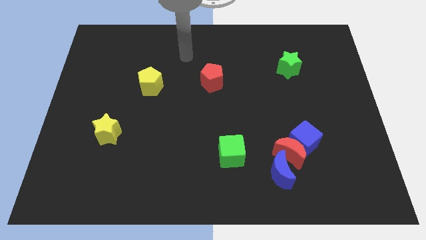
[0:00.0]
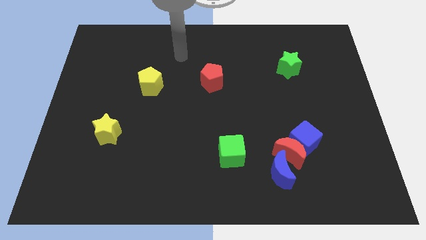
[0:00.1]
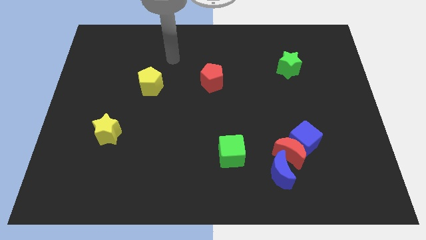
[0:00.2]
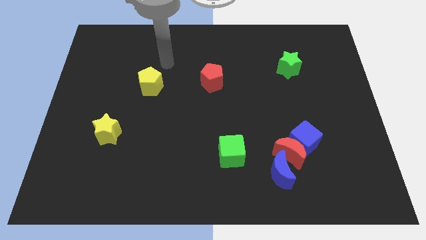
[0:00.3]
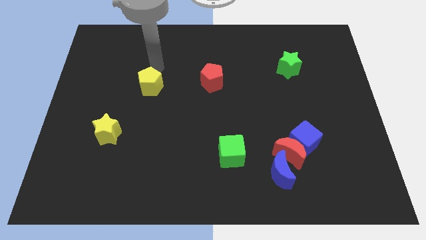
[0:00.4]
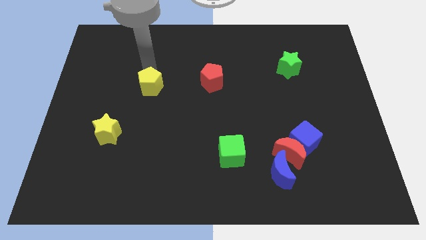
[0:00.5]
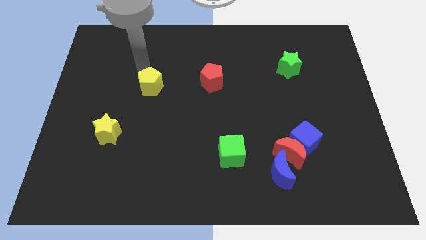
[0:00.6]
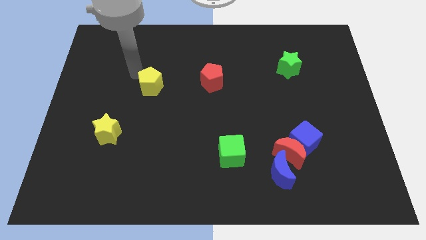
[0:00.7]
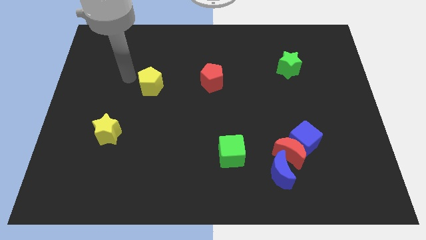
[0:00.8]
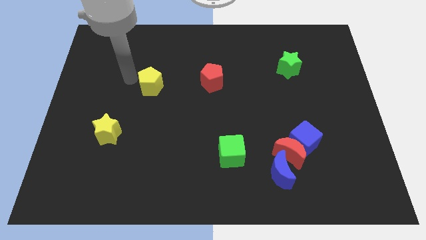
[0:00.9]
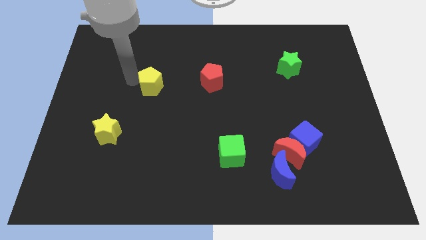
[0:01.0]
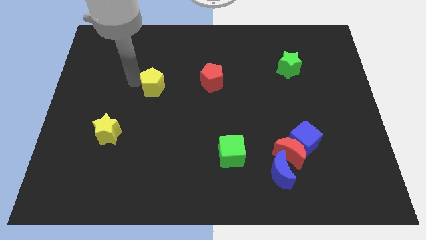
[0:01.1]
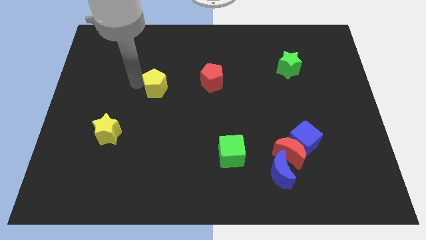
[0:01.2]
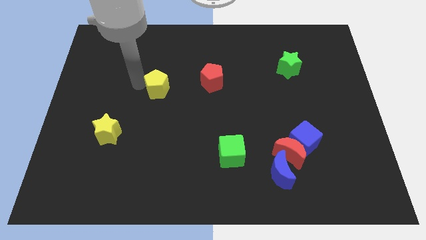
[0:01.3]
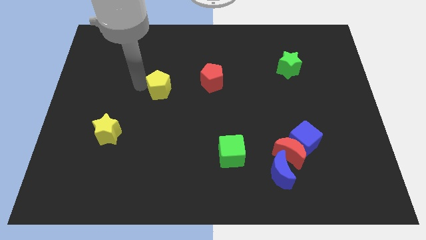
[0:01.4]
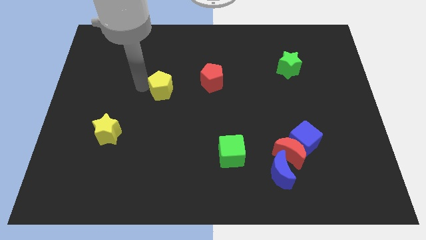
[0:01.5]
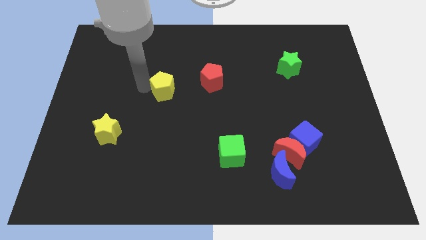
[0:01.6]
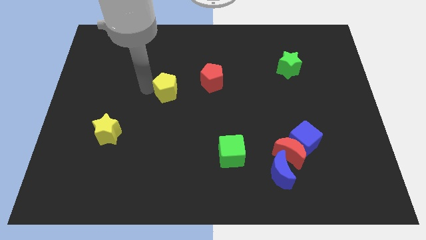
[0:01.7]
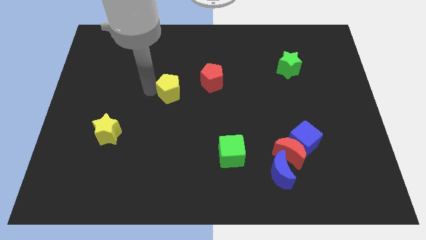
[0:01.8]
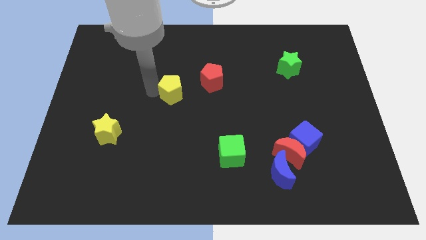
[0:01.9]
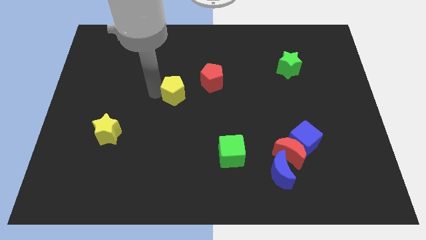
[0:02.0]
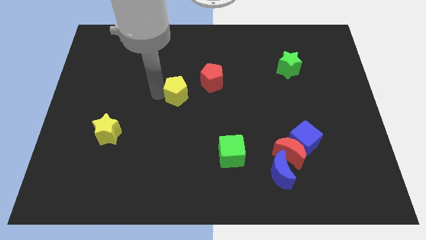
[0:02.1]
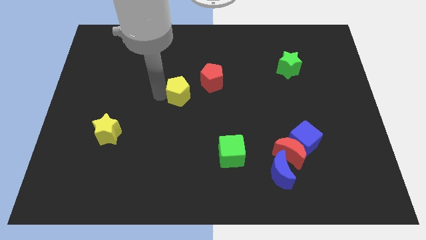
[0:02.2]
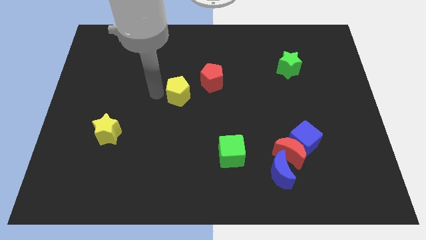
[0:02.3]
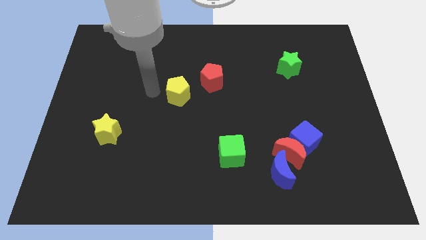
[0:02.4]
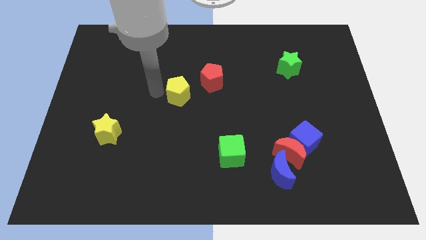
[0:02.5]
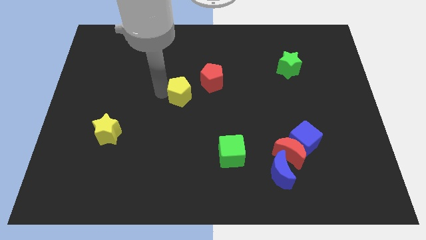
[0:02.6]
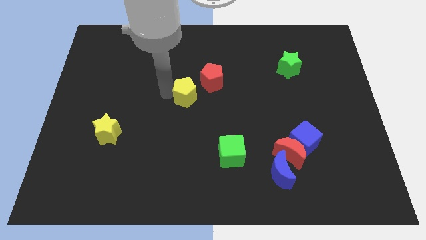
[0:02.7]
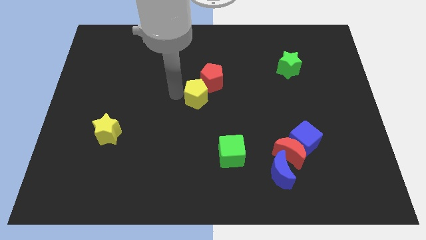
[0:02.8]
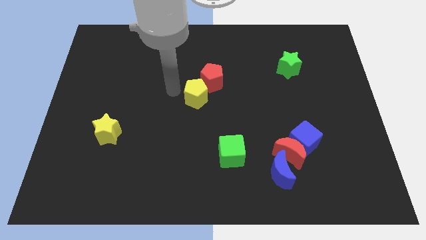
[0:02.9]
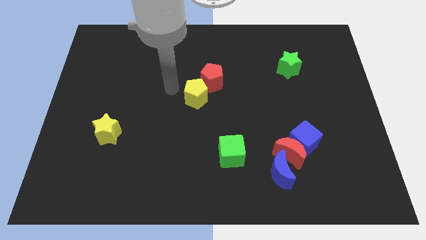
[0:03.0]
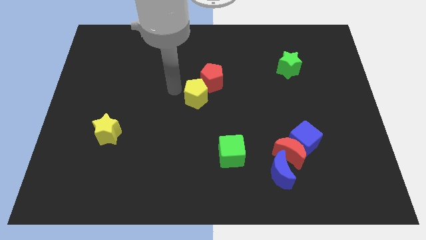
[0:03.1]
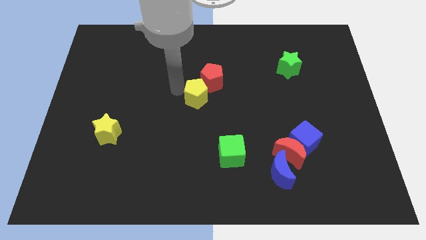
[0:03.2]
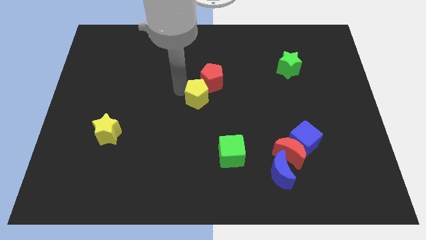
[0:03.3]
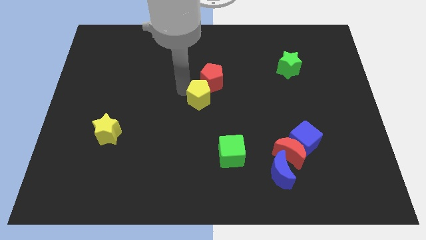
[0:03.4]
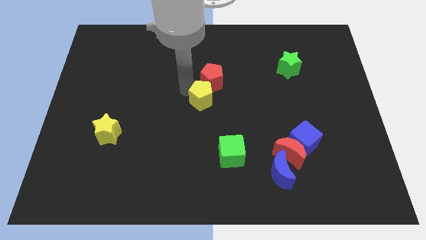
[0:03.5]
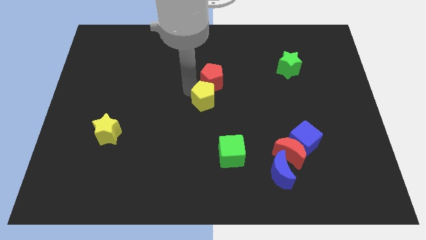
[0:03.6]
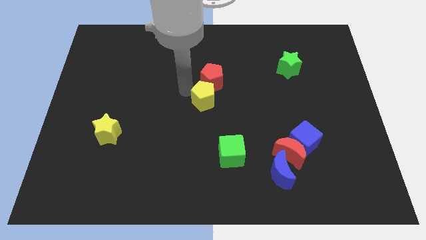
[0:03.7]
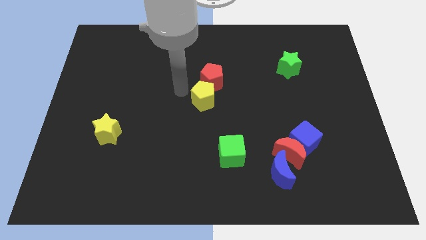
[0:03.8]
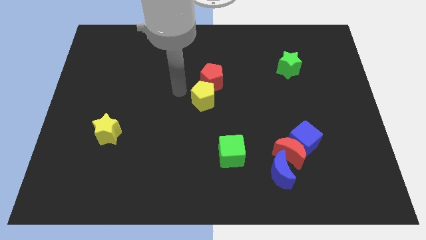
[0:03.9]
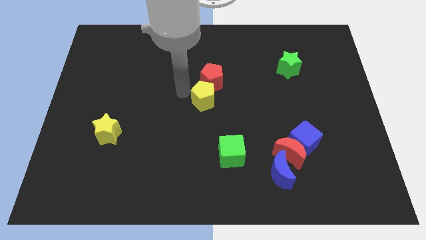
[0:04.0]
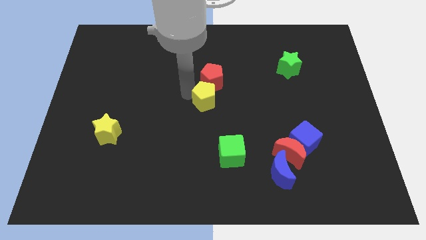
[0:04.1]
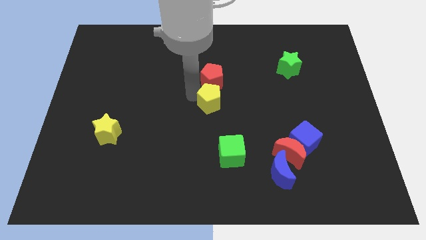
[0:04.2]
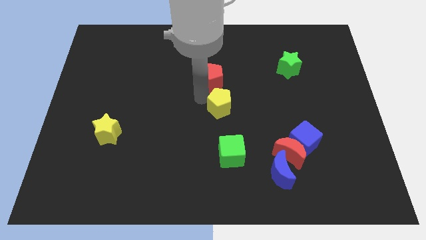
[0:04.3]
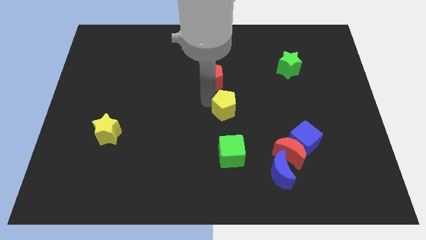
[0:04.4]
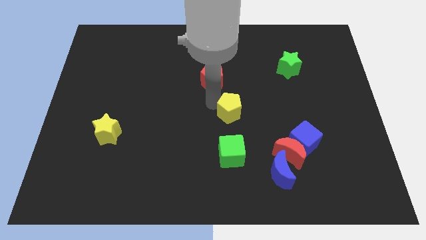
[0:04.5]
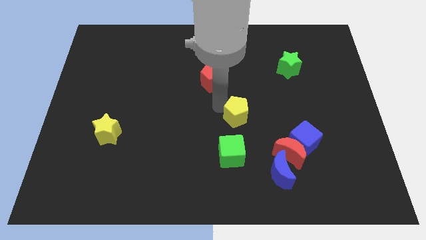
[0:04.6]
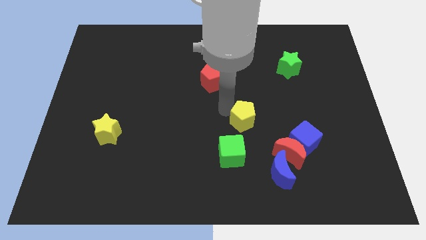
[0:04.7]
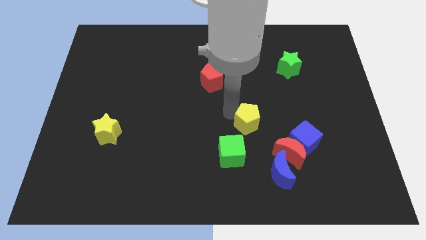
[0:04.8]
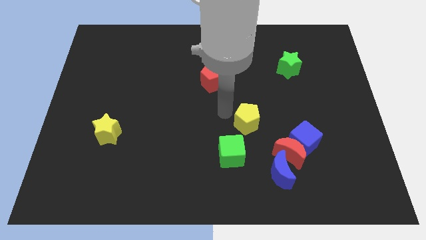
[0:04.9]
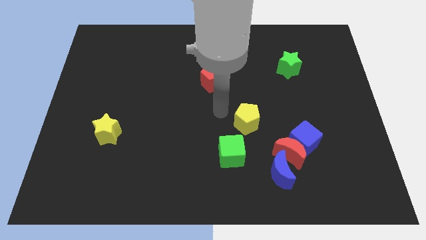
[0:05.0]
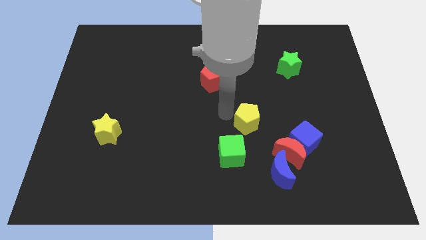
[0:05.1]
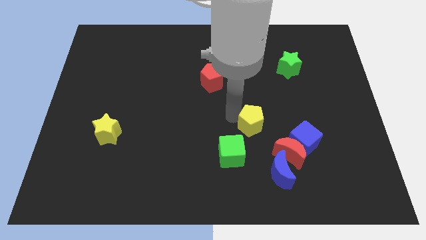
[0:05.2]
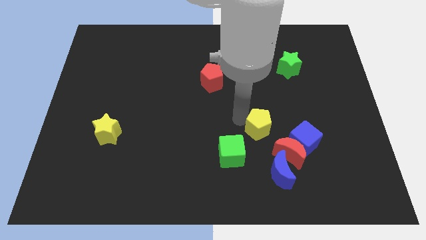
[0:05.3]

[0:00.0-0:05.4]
put the yellow pentagon above the blue moon

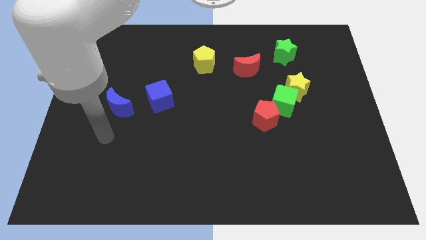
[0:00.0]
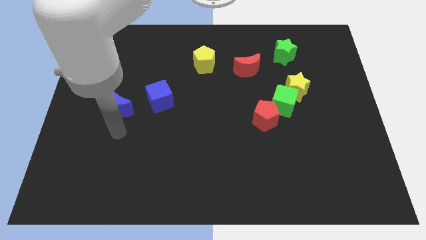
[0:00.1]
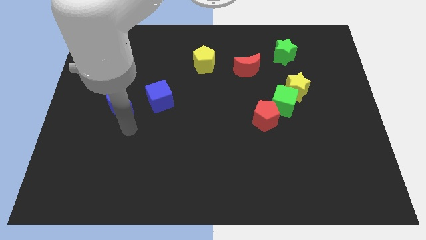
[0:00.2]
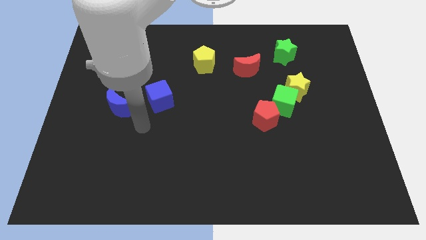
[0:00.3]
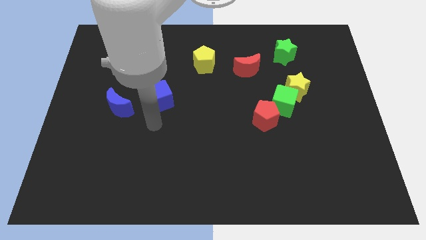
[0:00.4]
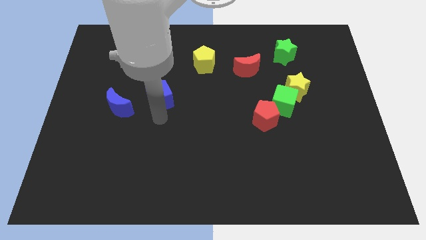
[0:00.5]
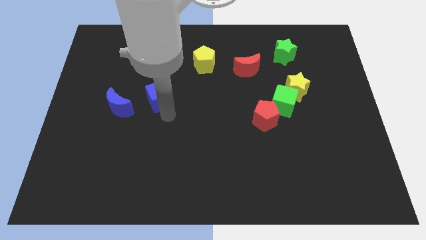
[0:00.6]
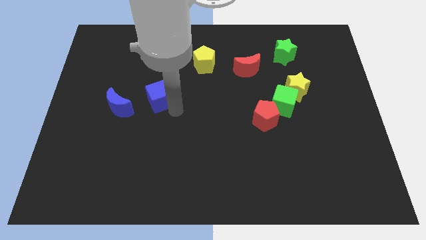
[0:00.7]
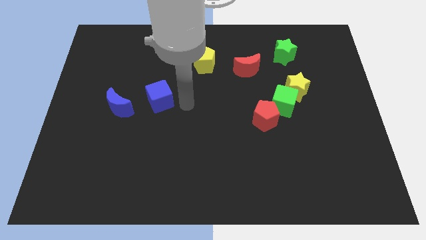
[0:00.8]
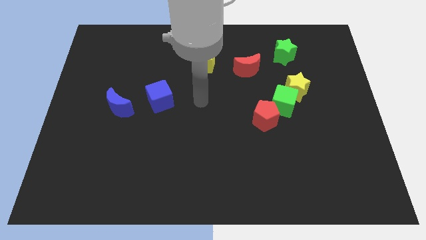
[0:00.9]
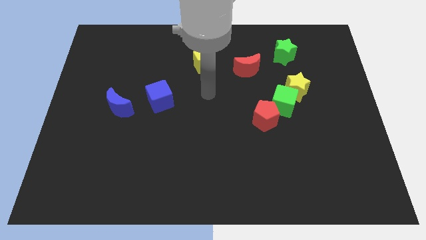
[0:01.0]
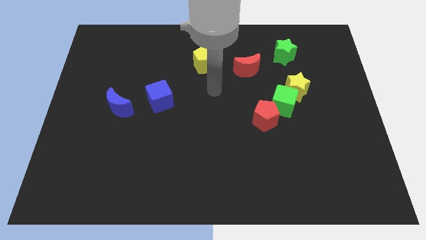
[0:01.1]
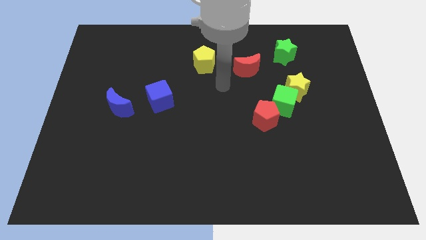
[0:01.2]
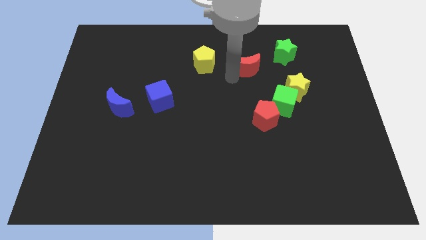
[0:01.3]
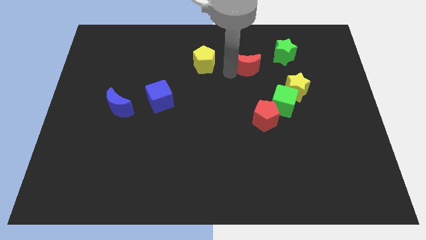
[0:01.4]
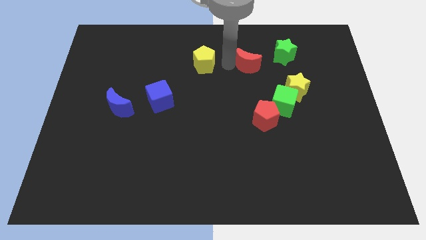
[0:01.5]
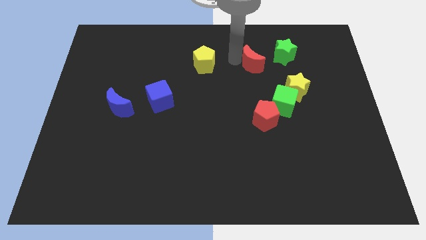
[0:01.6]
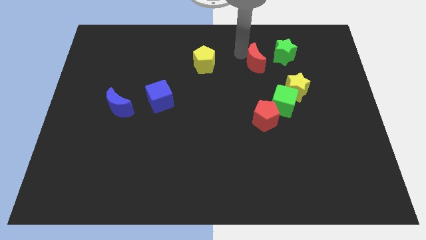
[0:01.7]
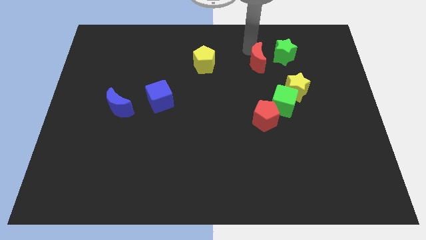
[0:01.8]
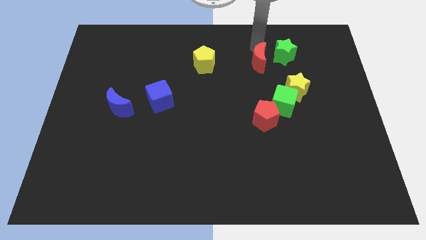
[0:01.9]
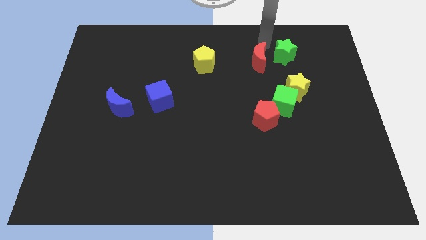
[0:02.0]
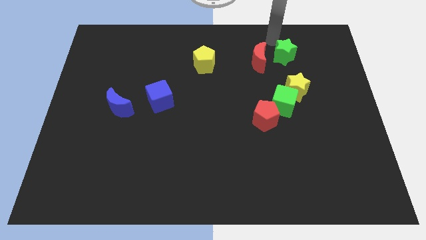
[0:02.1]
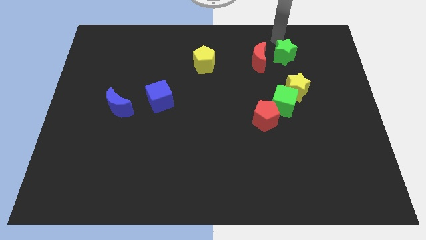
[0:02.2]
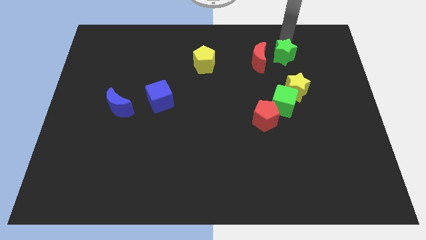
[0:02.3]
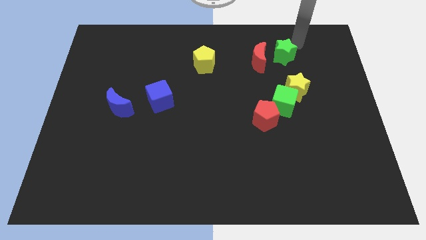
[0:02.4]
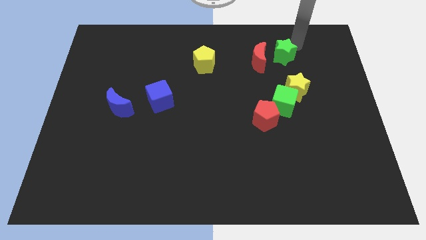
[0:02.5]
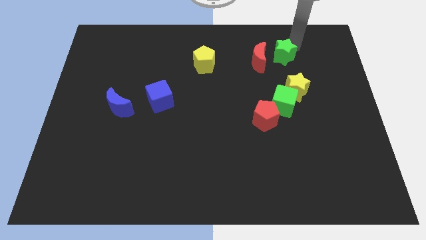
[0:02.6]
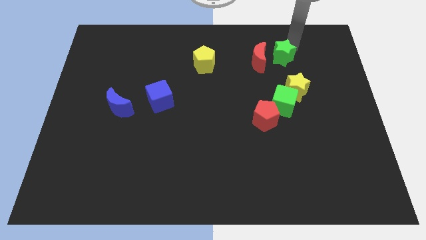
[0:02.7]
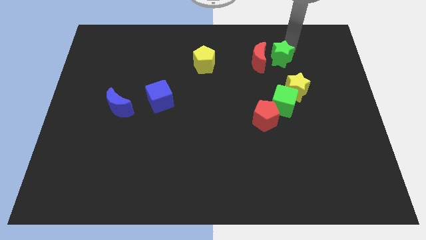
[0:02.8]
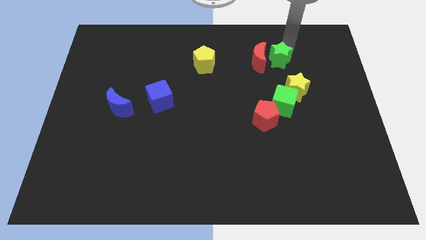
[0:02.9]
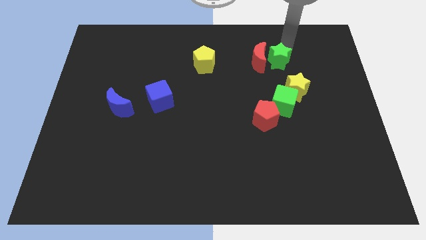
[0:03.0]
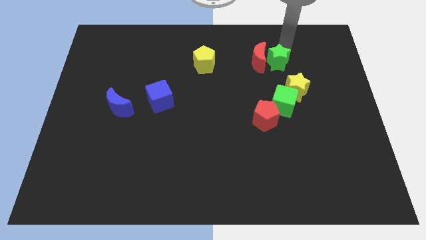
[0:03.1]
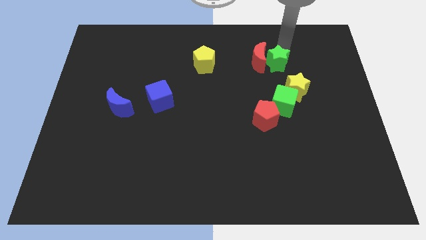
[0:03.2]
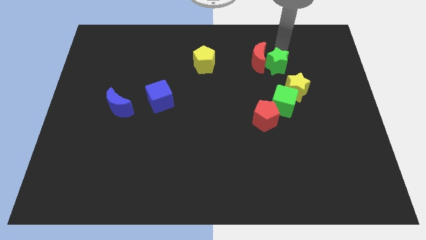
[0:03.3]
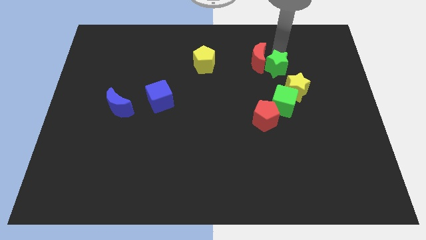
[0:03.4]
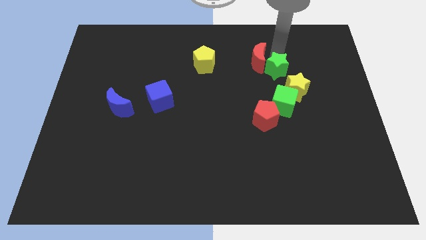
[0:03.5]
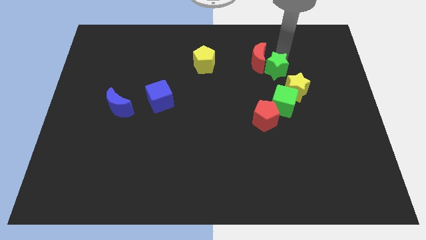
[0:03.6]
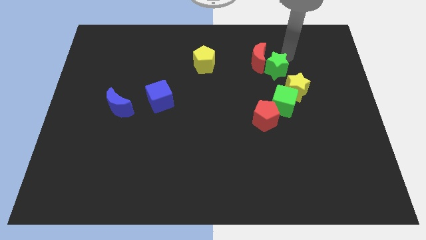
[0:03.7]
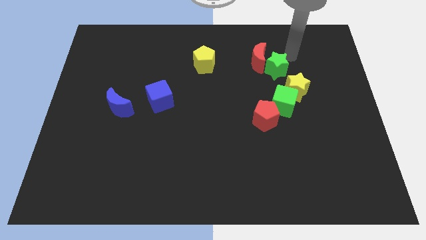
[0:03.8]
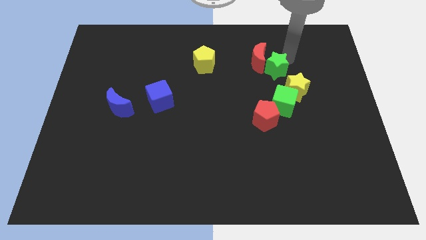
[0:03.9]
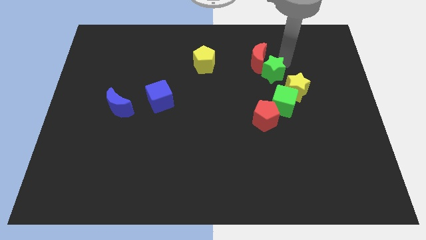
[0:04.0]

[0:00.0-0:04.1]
slide the green star to the top side of the red pentagon
